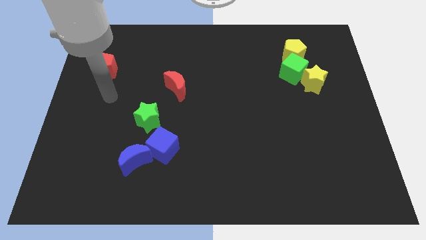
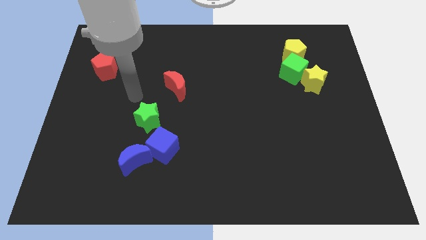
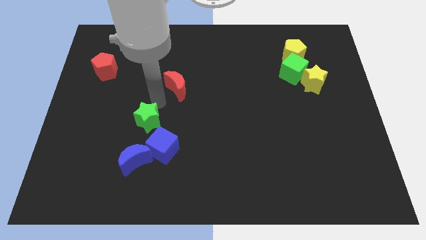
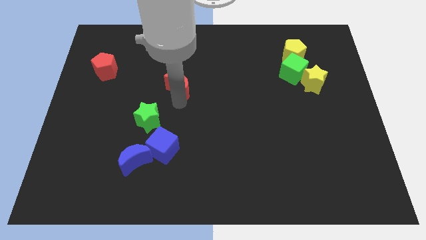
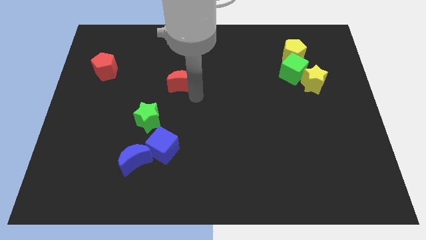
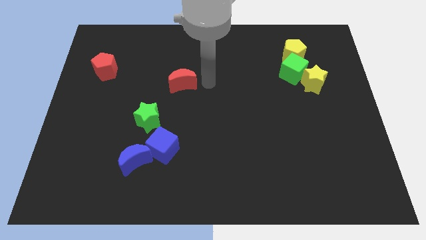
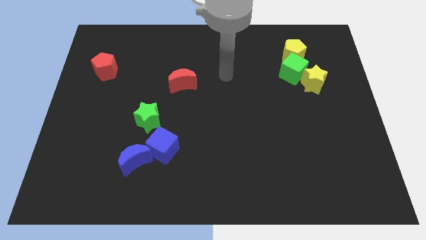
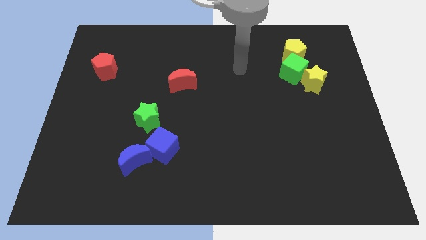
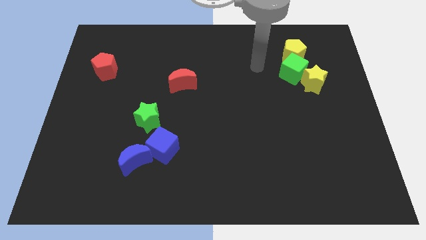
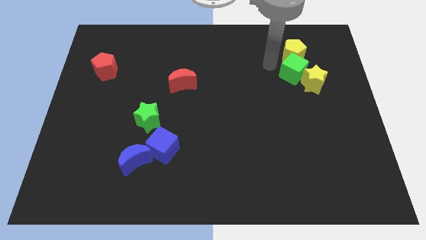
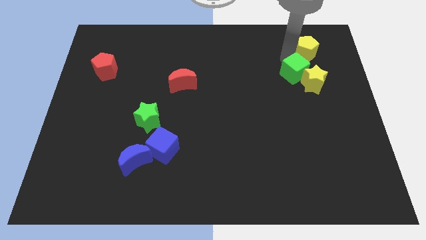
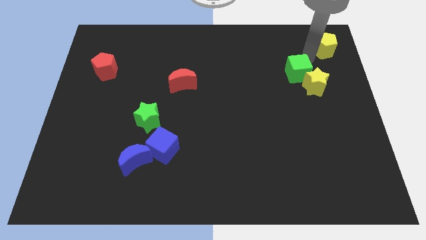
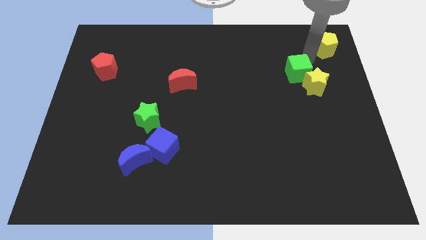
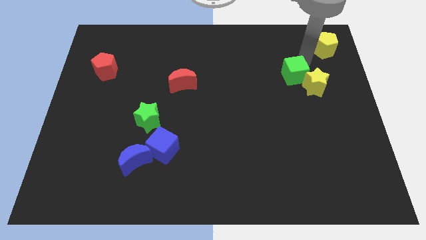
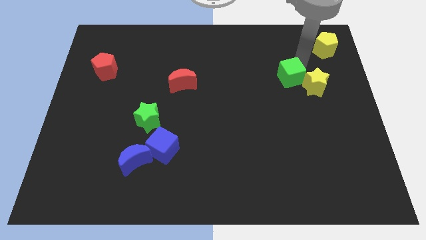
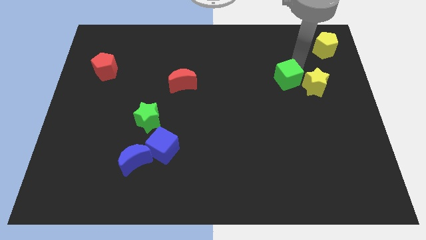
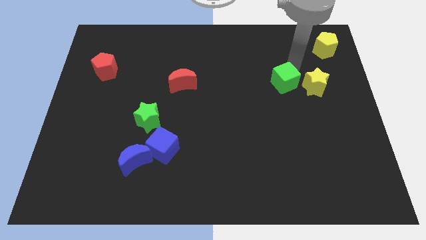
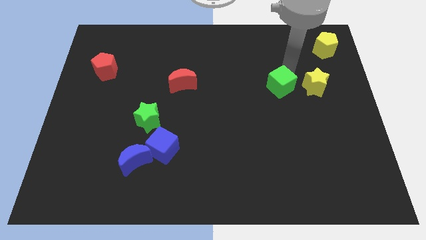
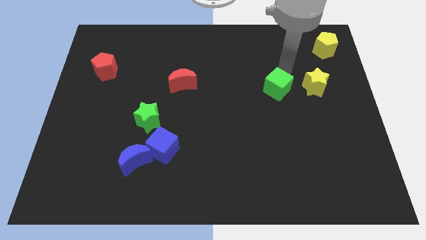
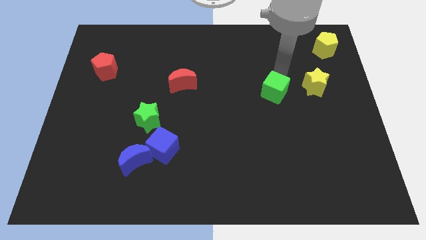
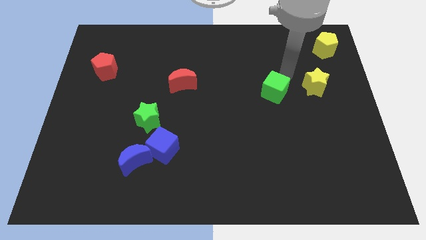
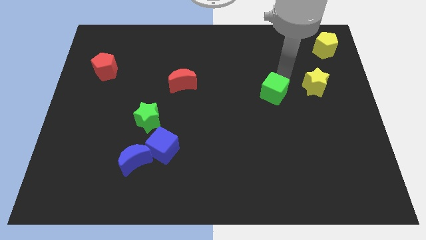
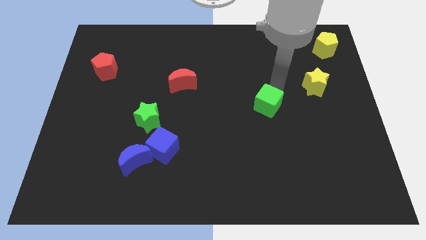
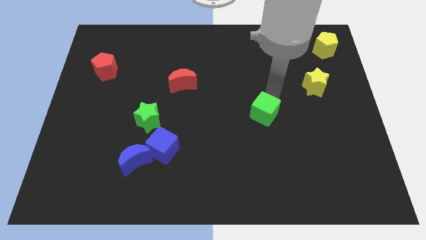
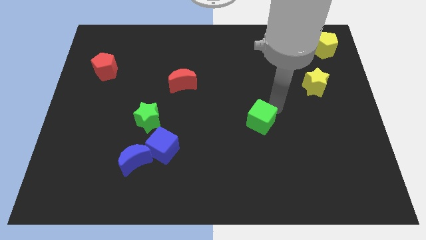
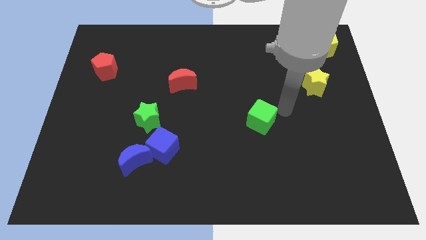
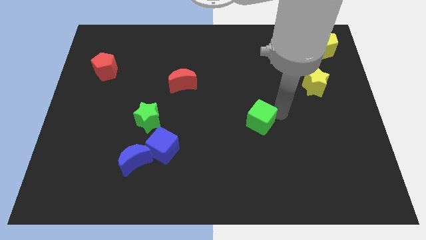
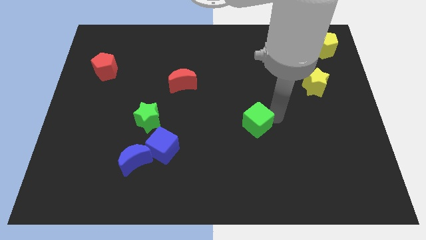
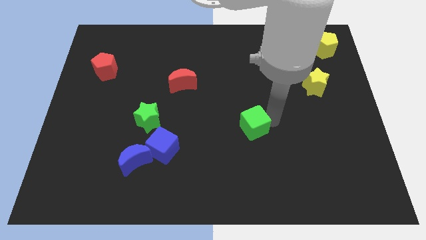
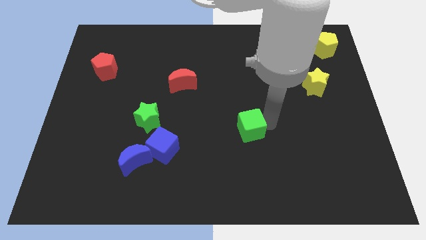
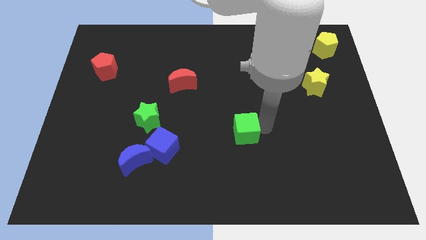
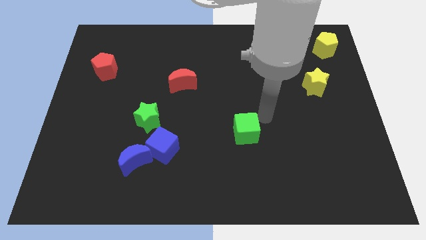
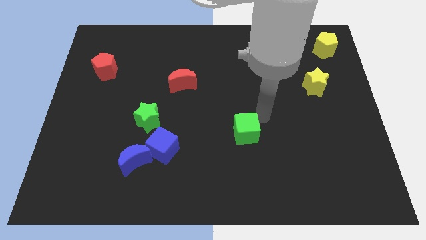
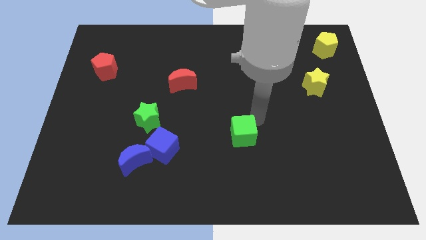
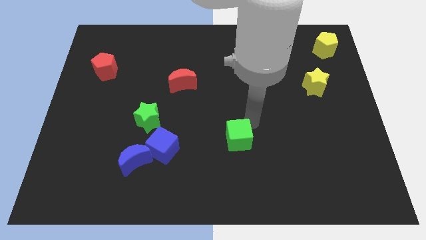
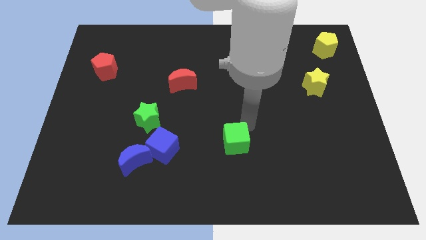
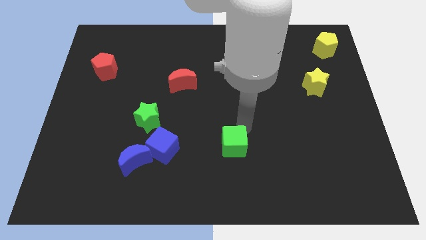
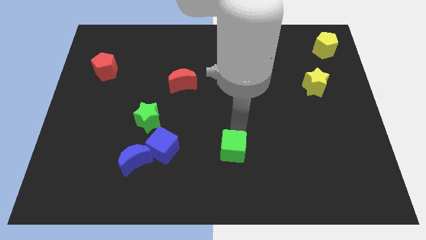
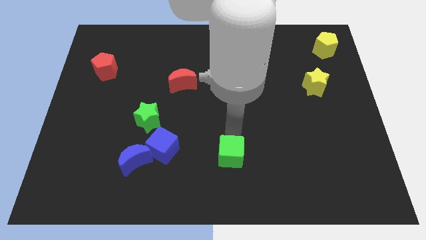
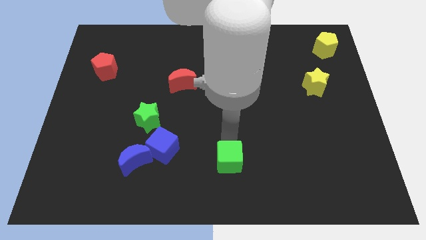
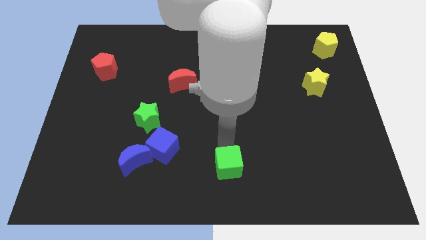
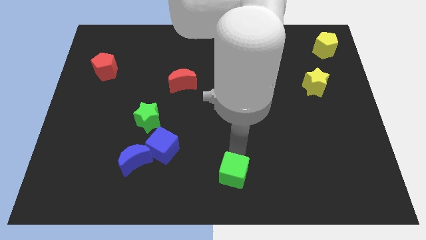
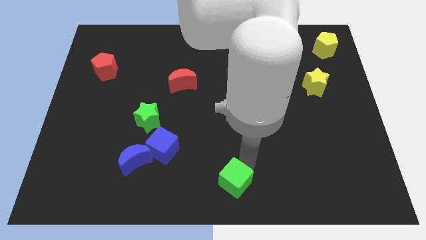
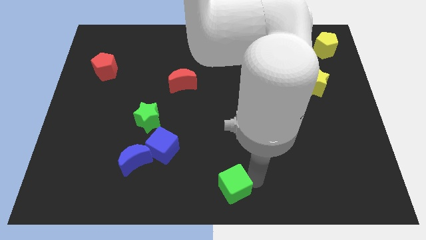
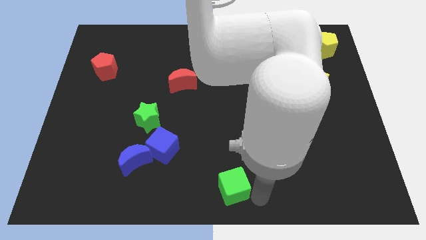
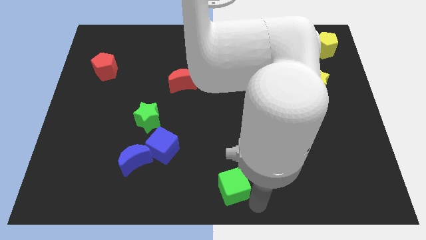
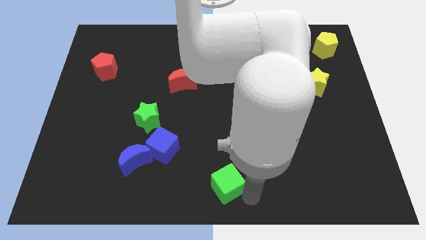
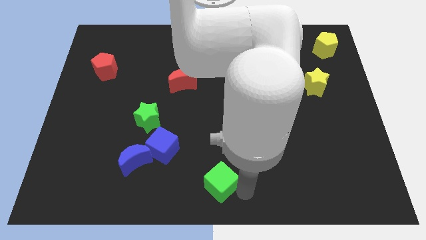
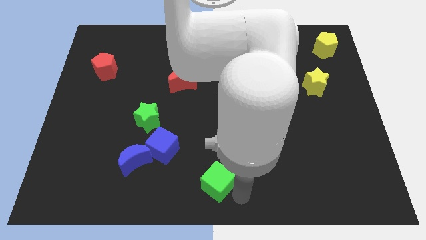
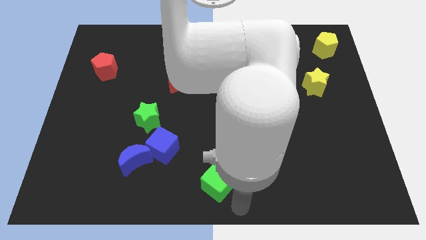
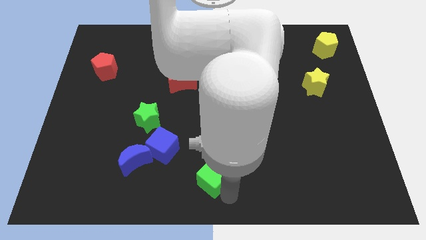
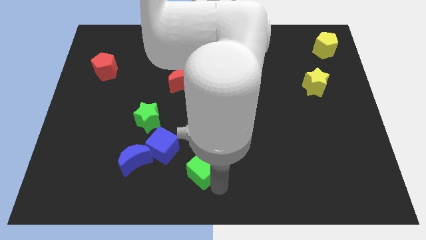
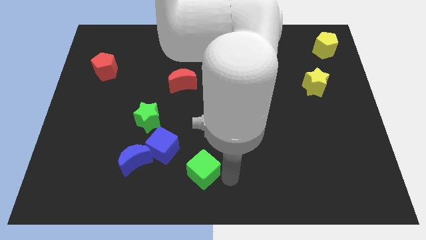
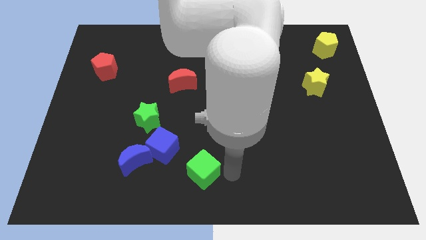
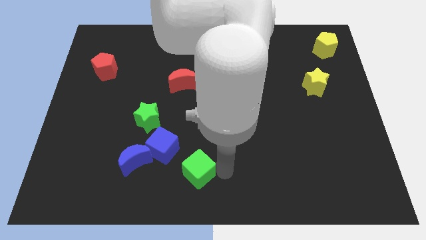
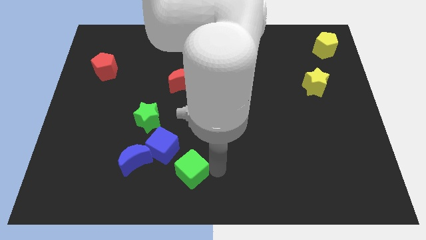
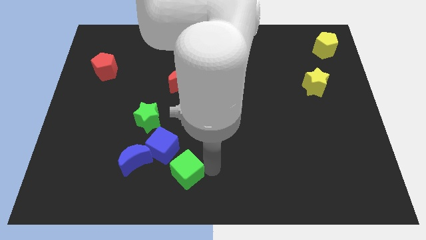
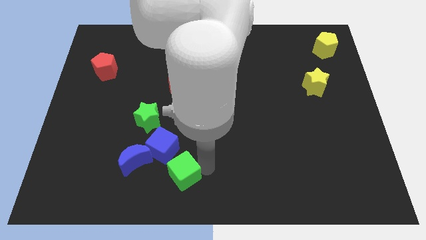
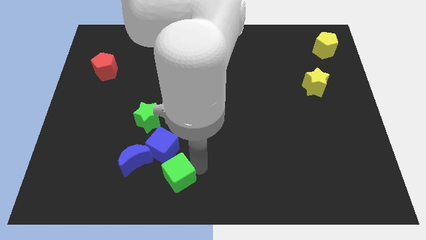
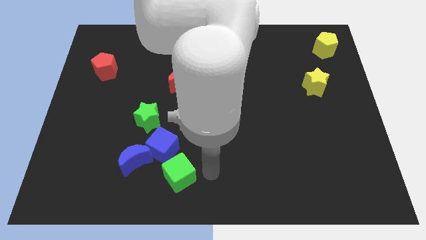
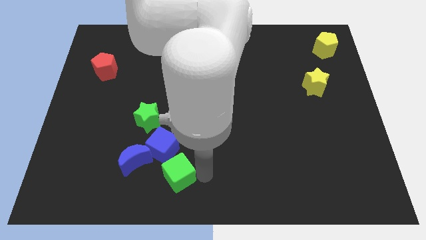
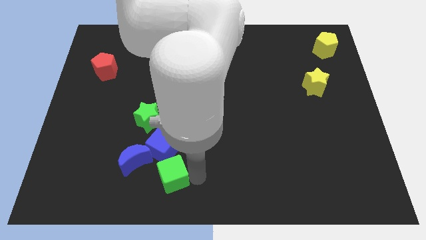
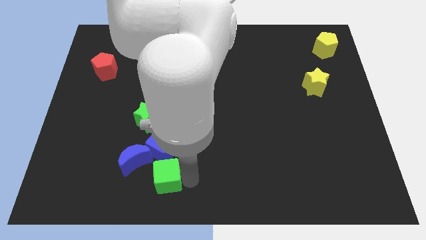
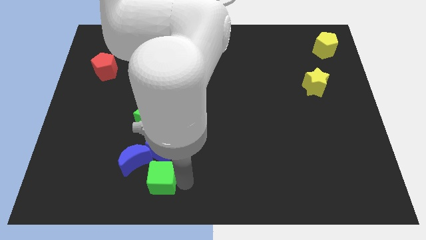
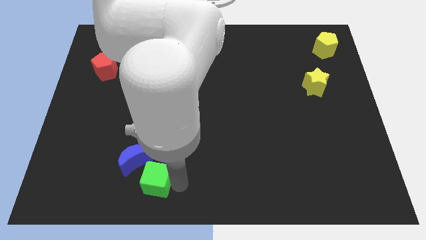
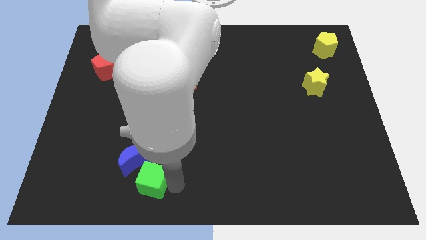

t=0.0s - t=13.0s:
put the green cube diagonally down and to the left of the blue cube
